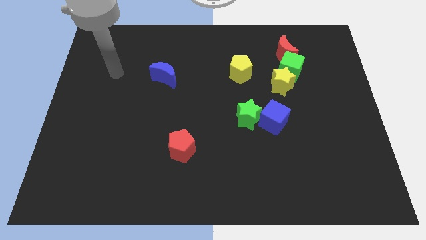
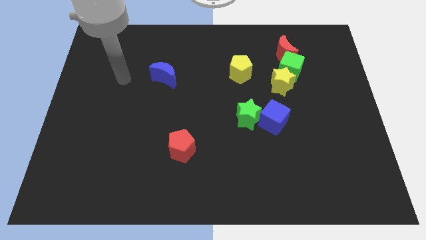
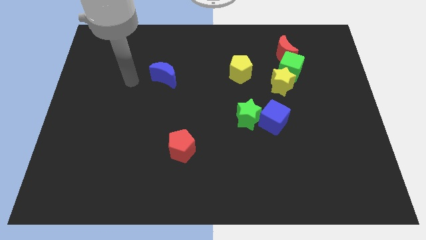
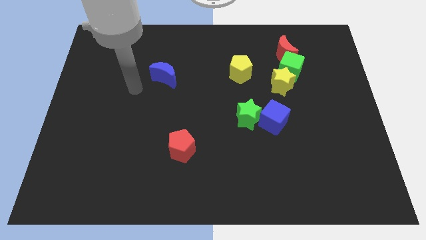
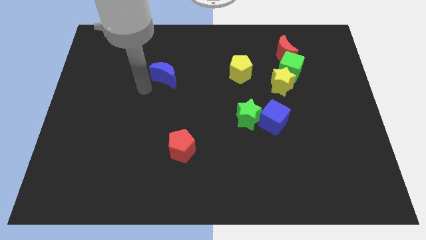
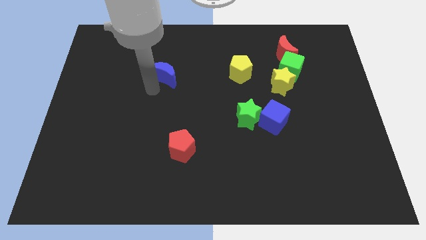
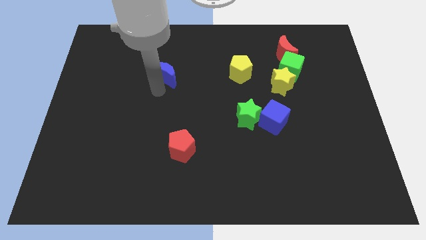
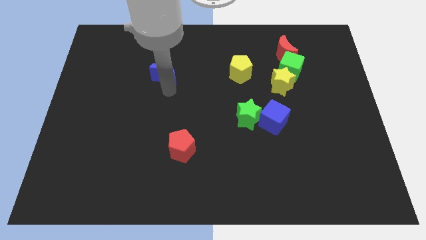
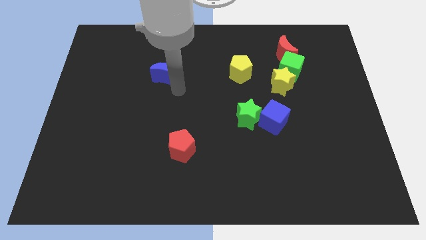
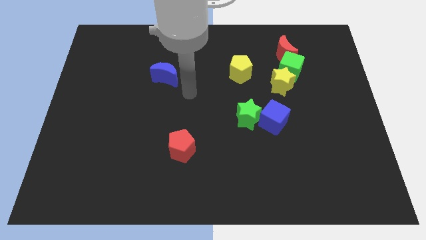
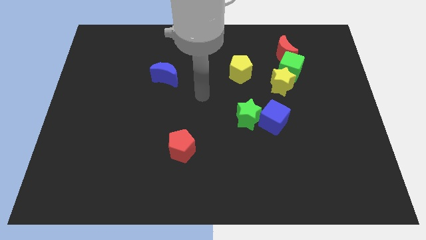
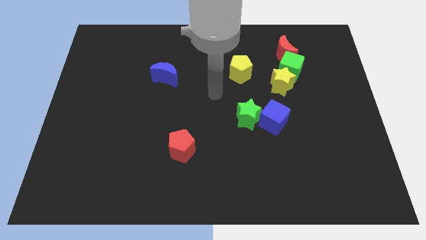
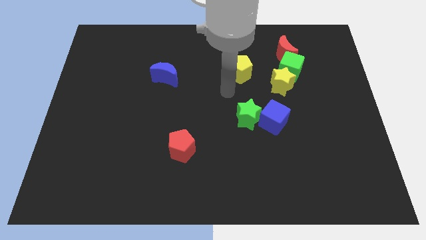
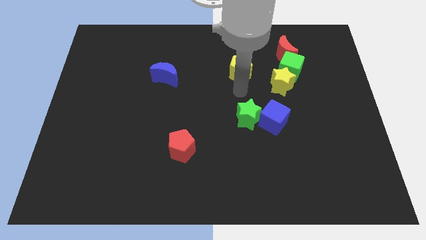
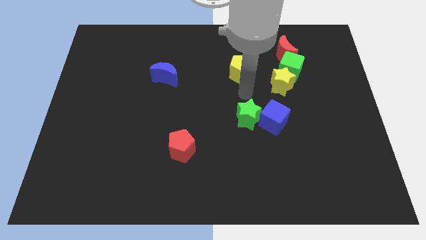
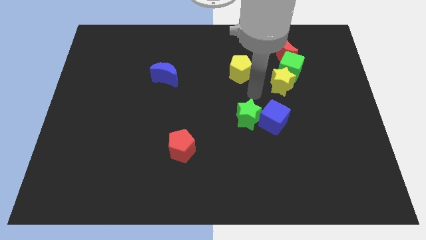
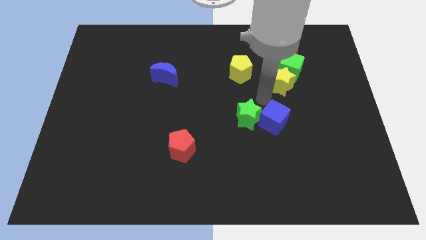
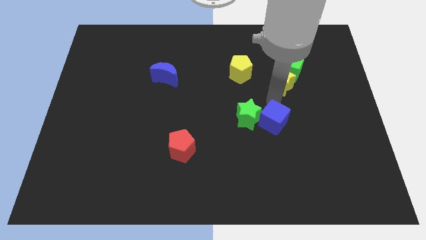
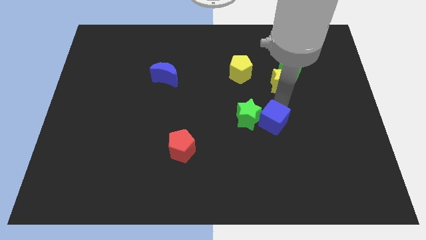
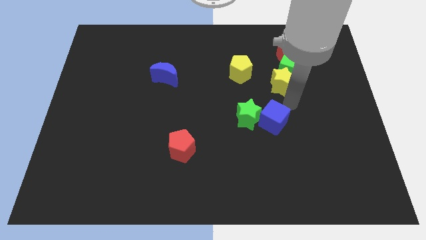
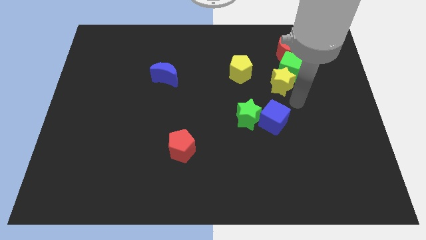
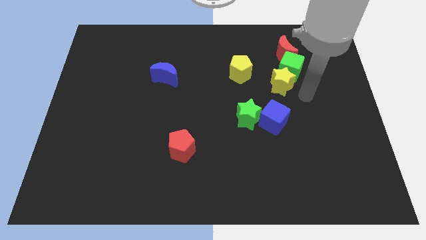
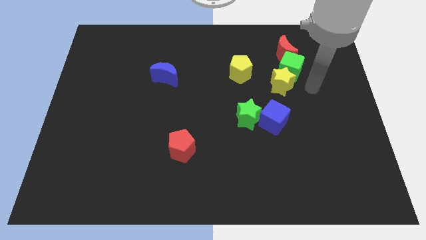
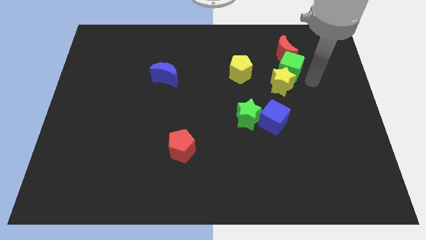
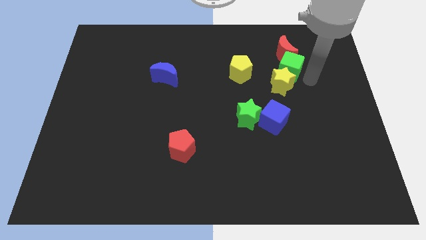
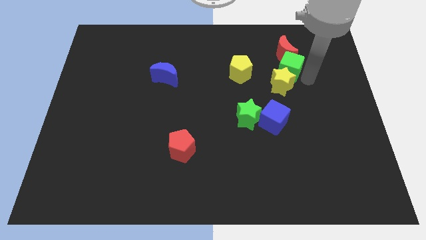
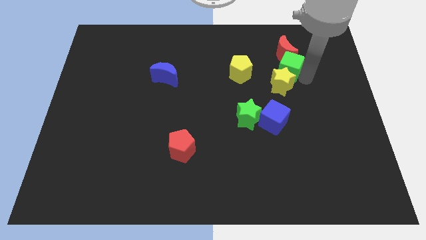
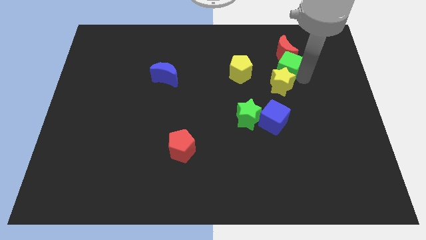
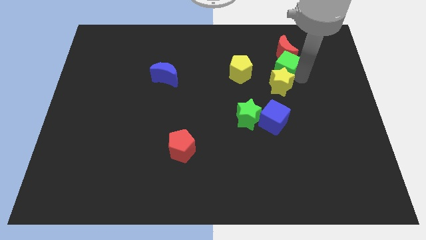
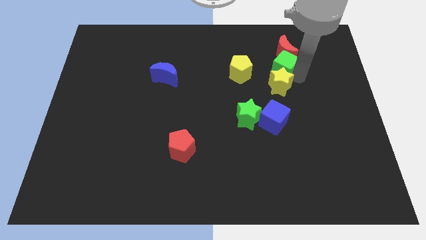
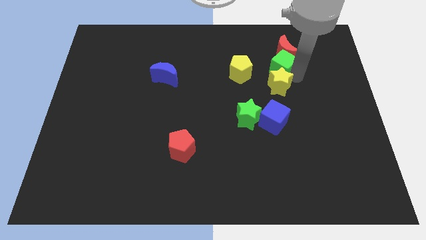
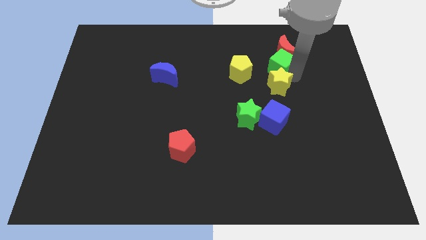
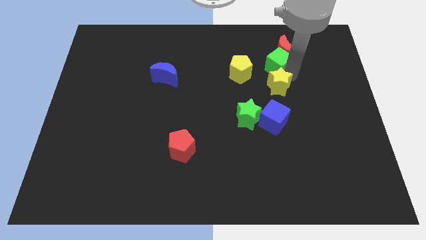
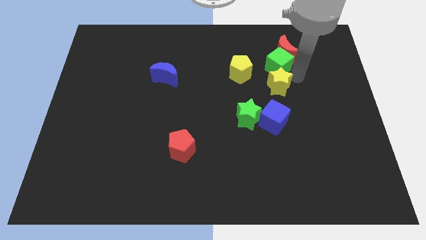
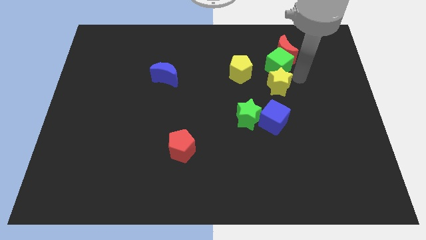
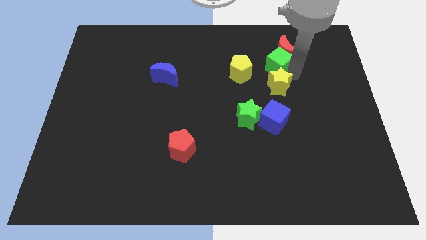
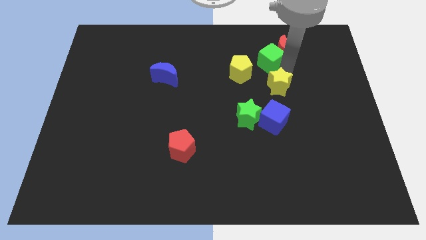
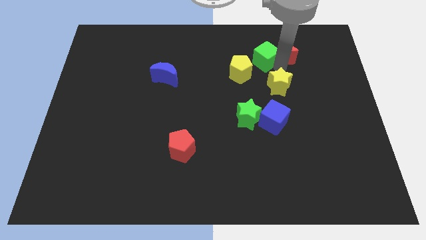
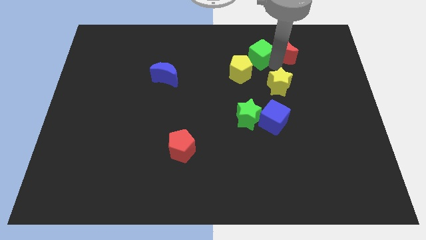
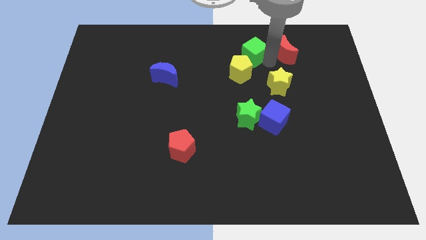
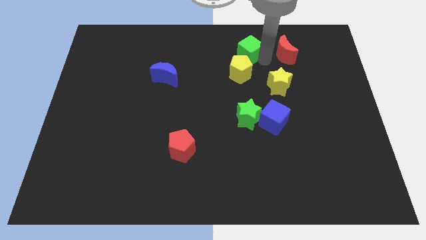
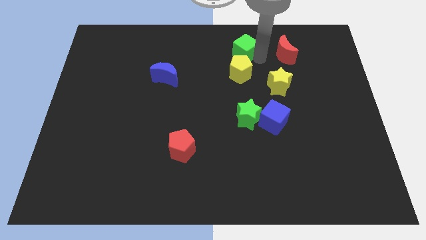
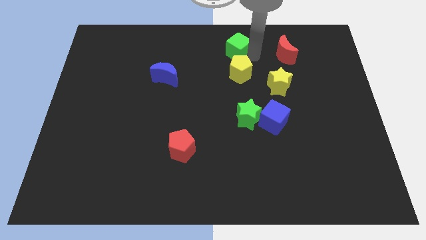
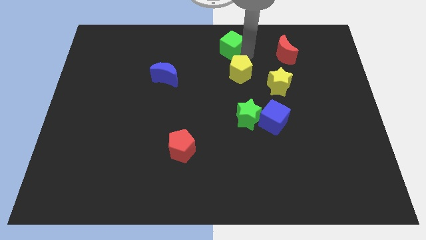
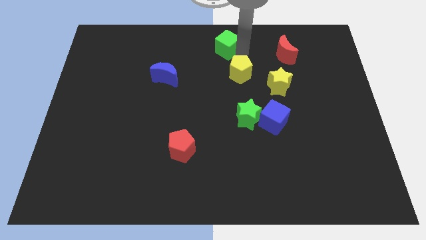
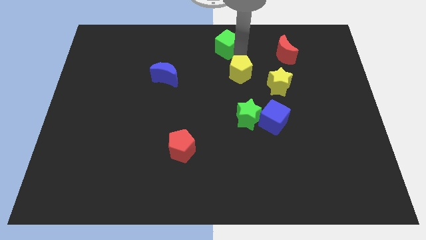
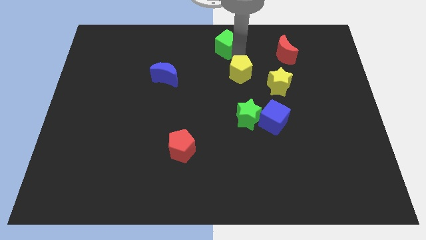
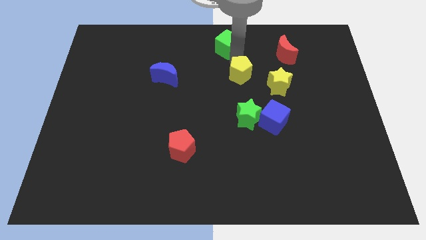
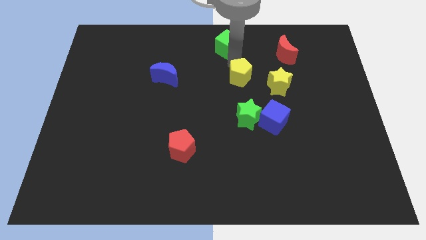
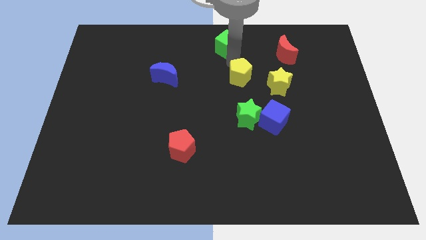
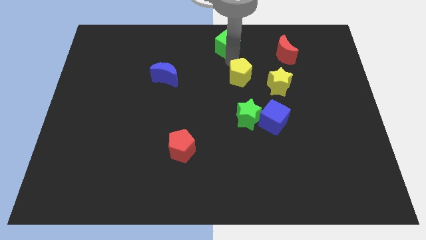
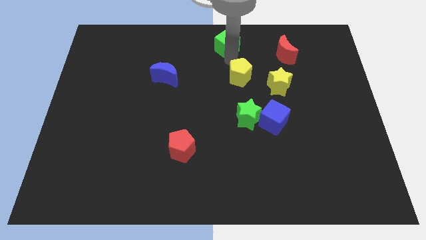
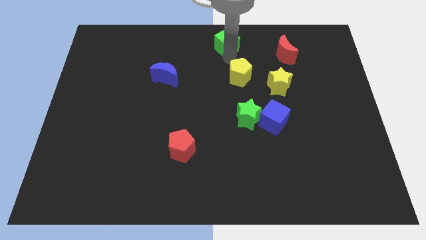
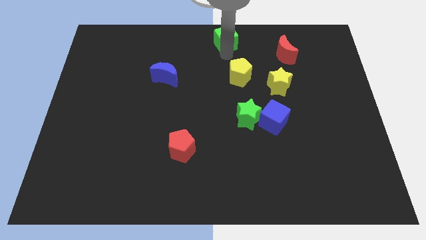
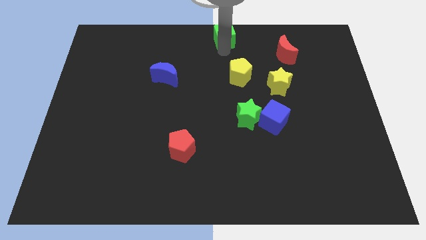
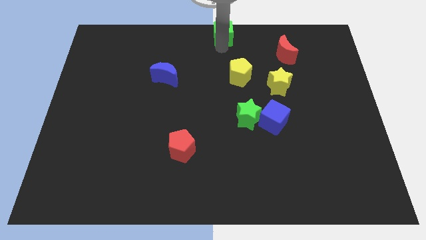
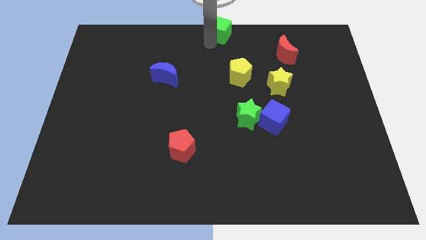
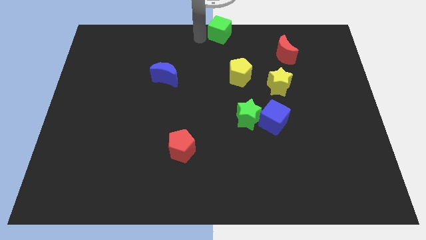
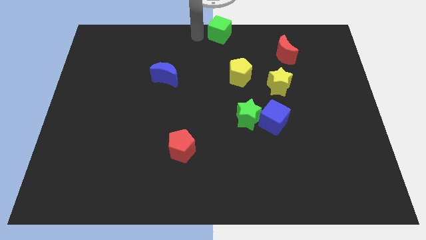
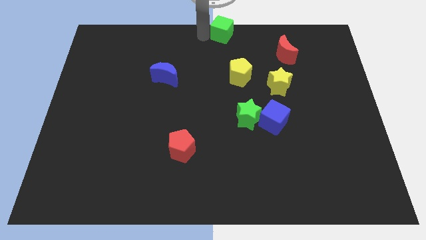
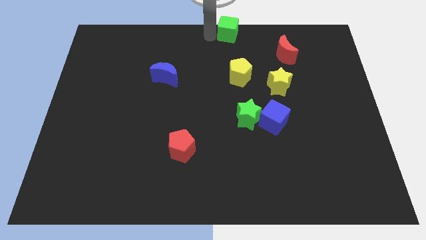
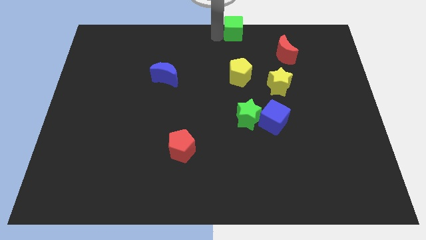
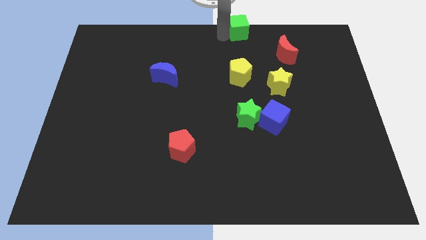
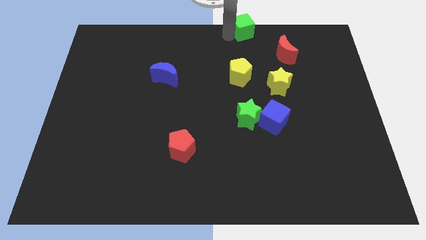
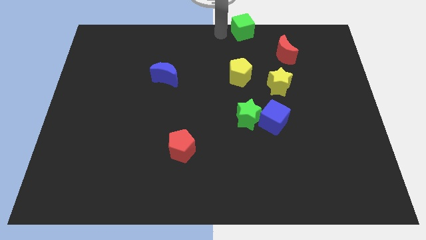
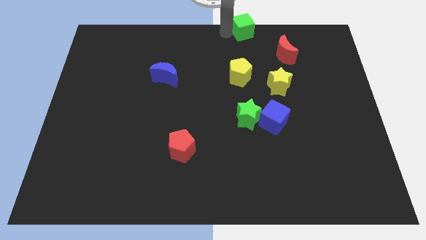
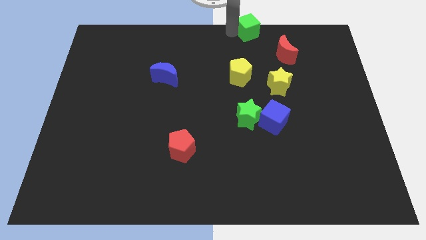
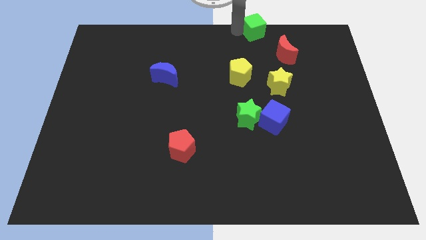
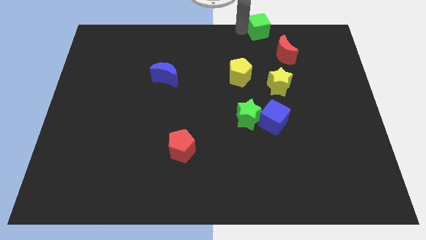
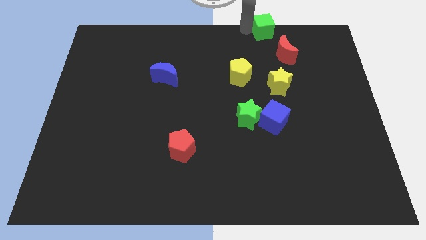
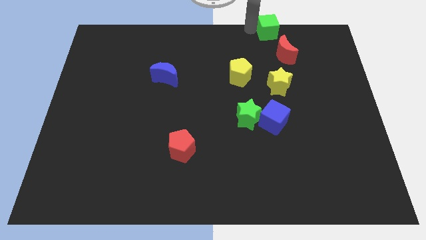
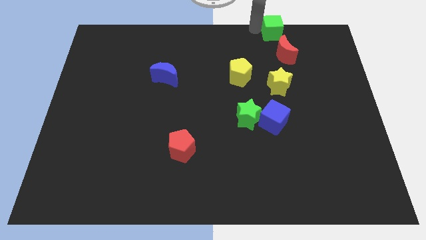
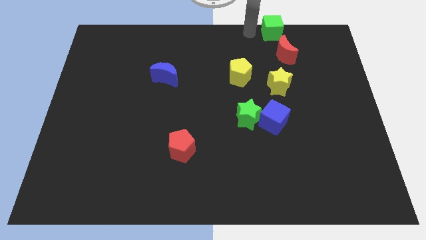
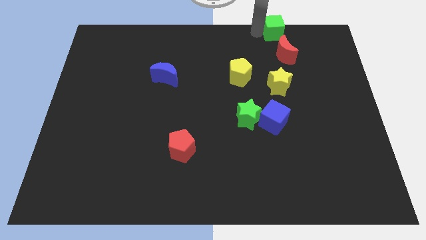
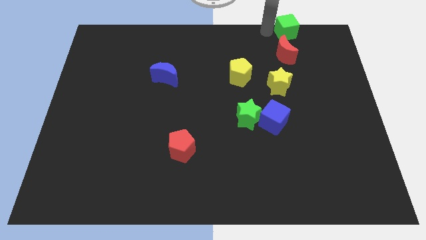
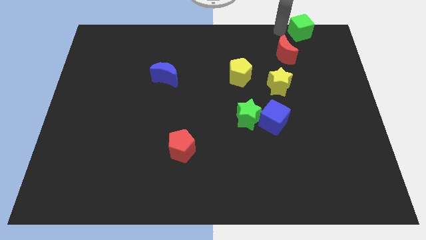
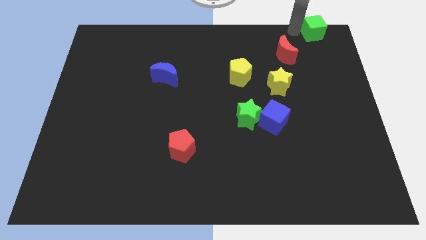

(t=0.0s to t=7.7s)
move the green cube to the top right corner
